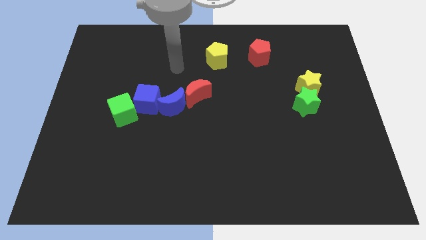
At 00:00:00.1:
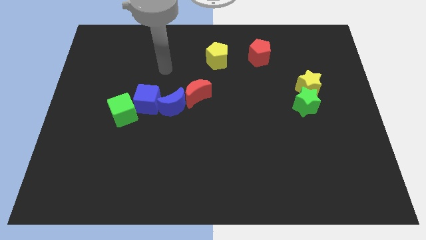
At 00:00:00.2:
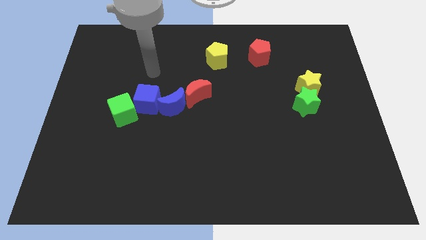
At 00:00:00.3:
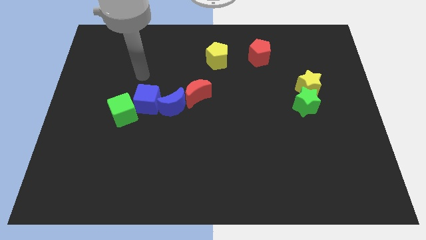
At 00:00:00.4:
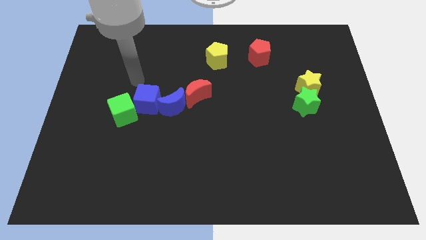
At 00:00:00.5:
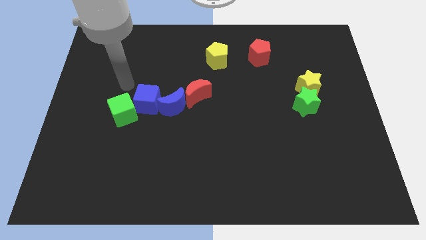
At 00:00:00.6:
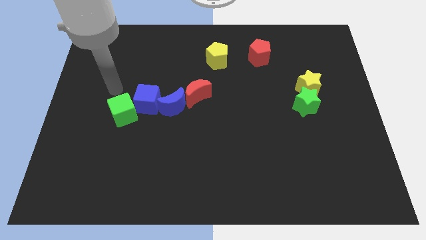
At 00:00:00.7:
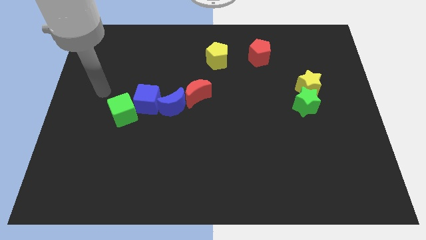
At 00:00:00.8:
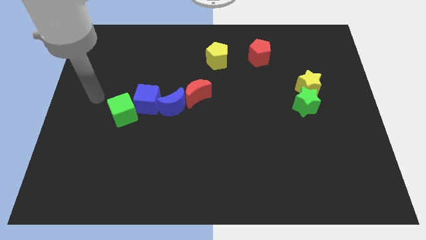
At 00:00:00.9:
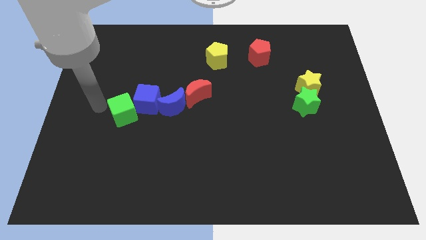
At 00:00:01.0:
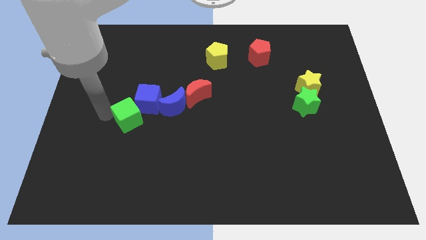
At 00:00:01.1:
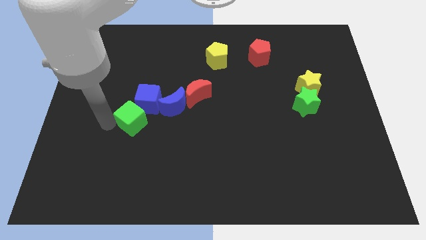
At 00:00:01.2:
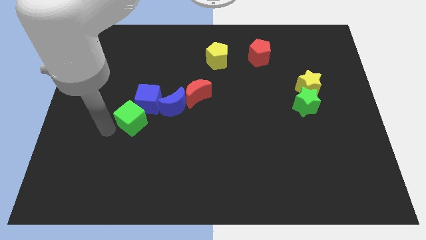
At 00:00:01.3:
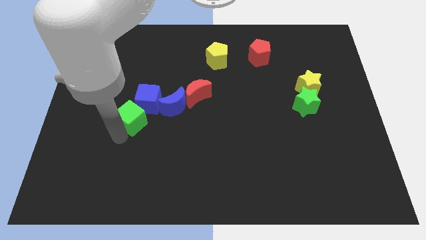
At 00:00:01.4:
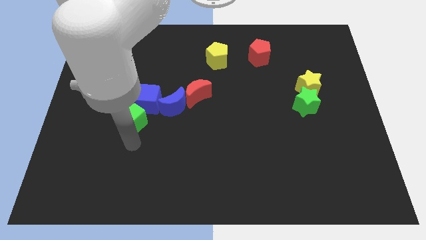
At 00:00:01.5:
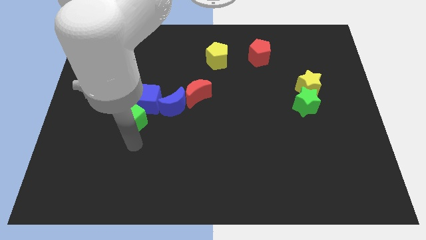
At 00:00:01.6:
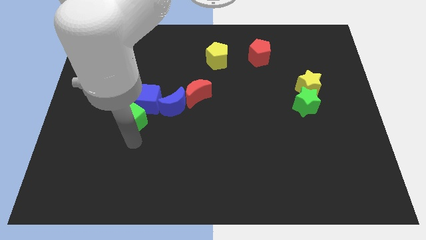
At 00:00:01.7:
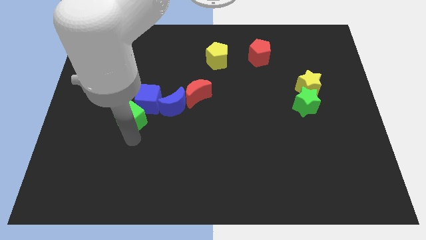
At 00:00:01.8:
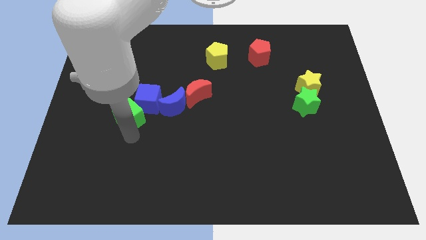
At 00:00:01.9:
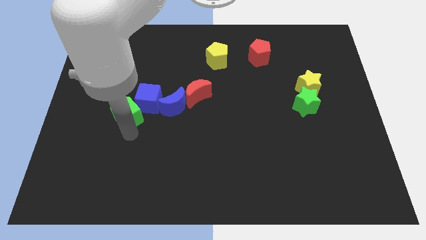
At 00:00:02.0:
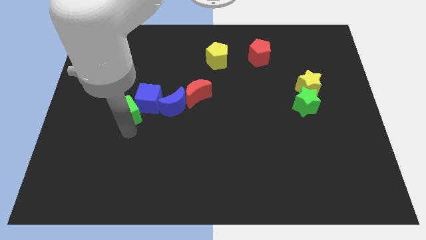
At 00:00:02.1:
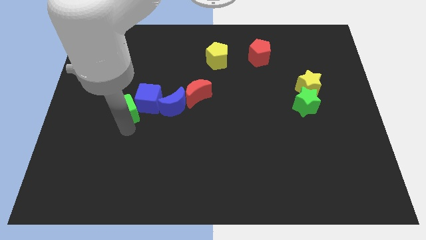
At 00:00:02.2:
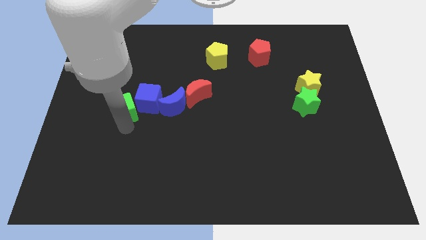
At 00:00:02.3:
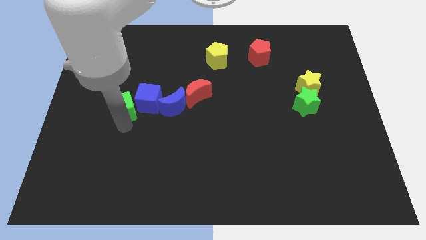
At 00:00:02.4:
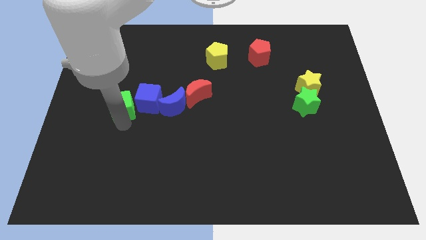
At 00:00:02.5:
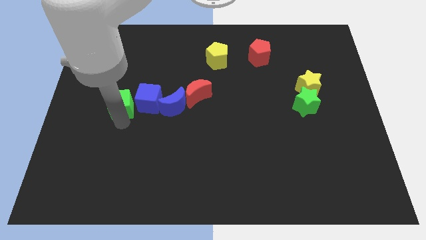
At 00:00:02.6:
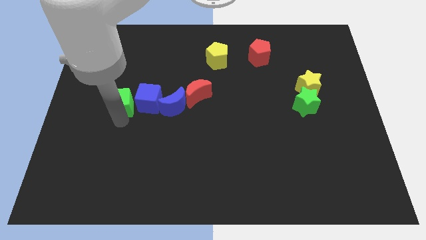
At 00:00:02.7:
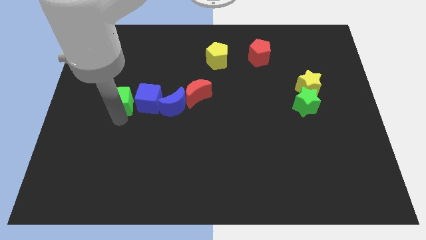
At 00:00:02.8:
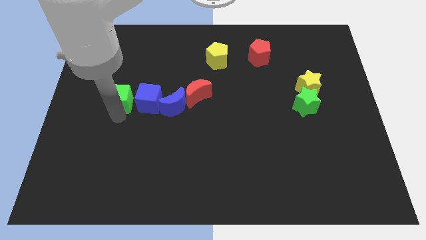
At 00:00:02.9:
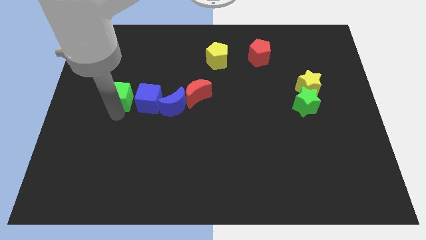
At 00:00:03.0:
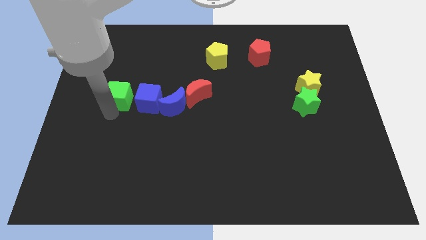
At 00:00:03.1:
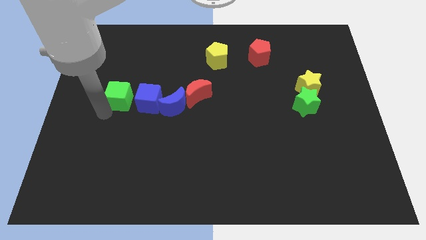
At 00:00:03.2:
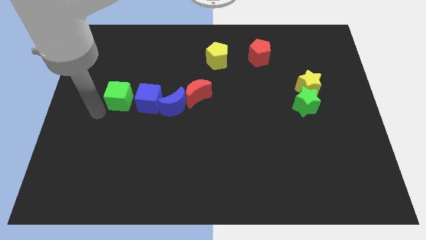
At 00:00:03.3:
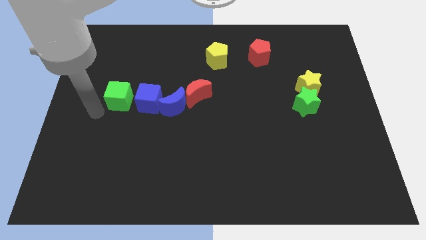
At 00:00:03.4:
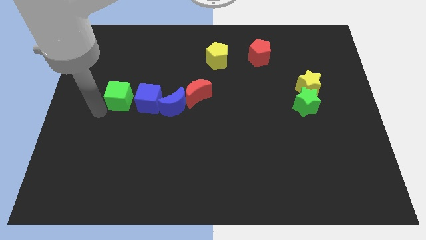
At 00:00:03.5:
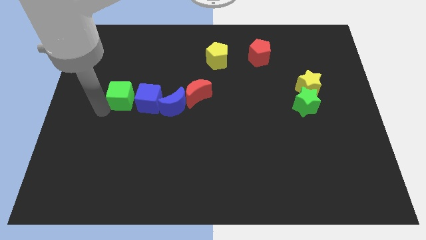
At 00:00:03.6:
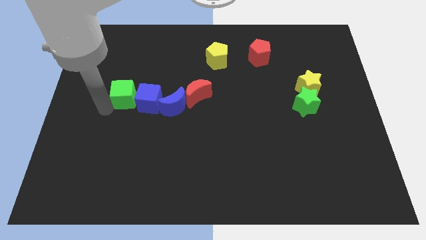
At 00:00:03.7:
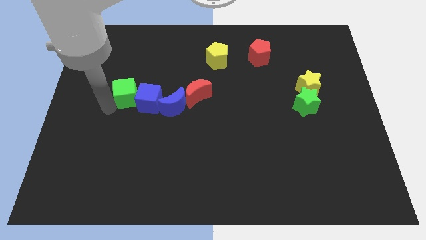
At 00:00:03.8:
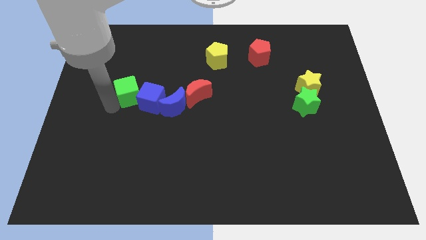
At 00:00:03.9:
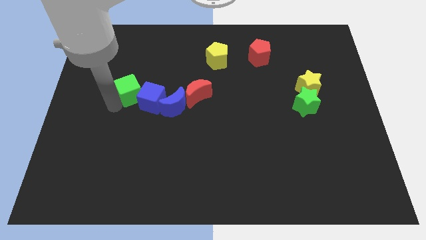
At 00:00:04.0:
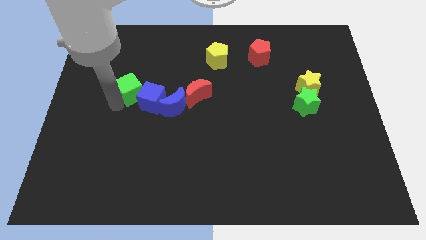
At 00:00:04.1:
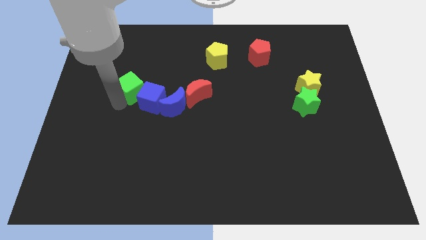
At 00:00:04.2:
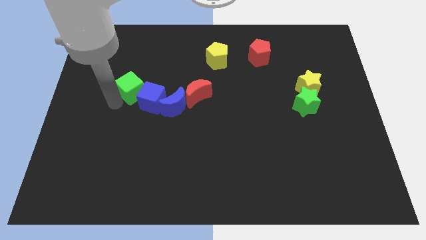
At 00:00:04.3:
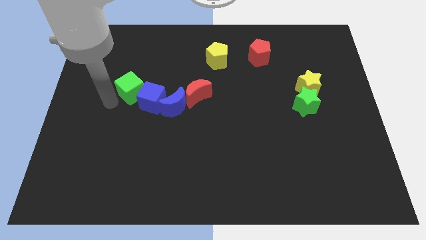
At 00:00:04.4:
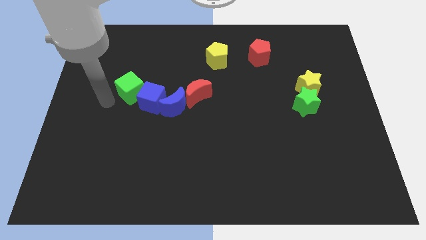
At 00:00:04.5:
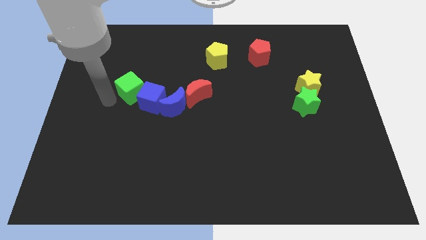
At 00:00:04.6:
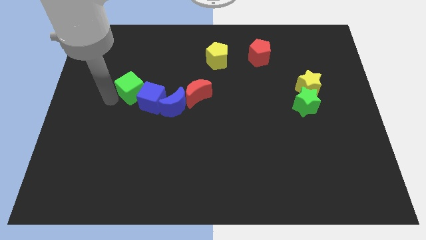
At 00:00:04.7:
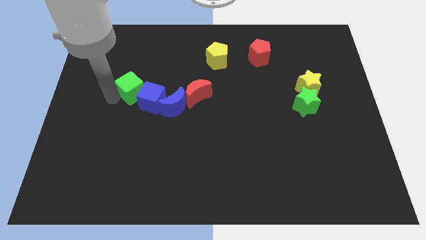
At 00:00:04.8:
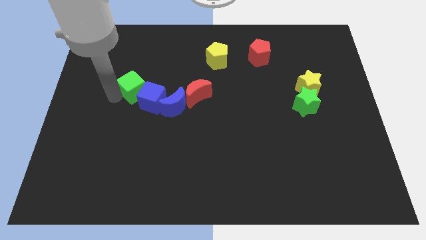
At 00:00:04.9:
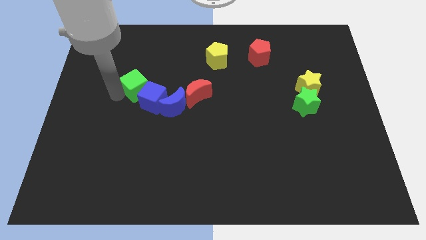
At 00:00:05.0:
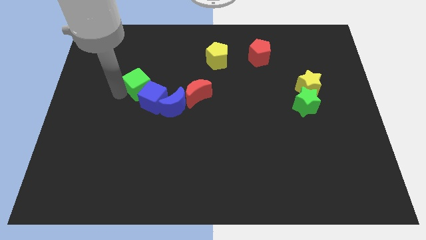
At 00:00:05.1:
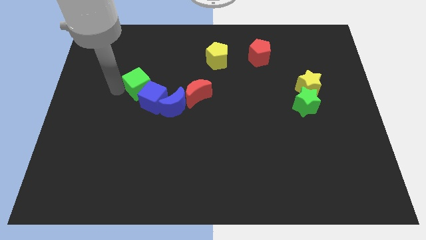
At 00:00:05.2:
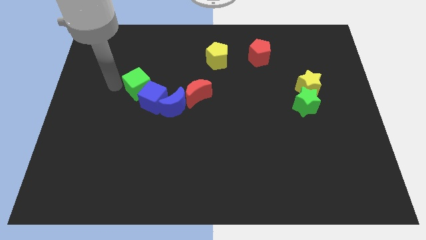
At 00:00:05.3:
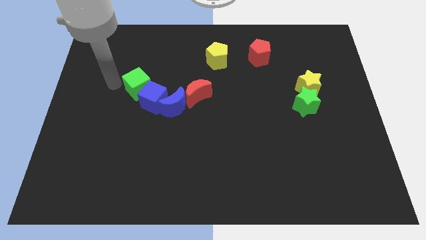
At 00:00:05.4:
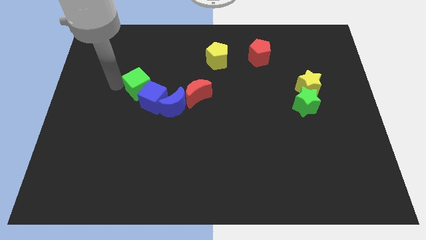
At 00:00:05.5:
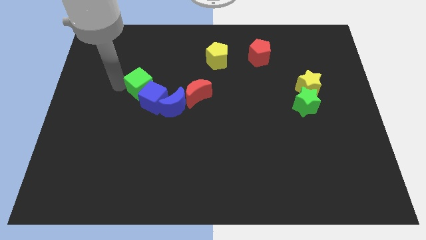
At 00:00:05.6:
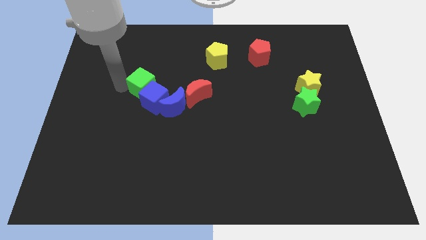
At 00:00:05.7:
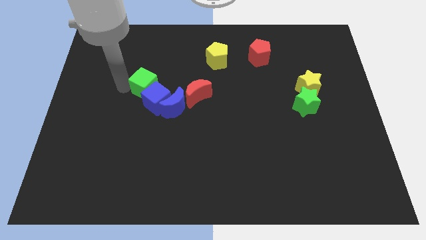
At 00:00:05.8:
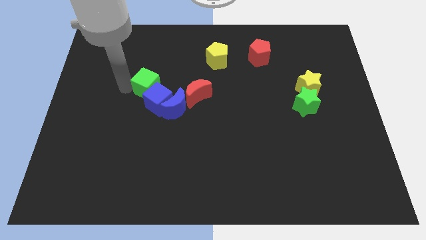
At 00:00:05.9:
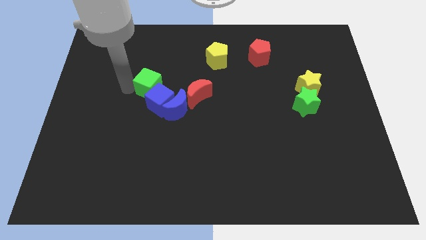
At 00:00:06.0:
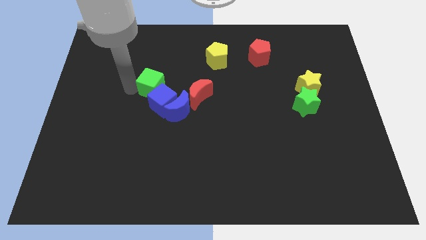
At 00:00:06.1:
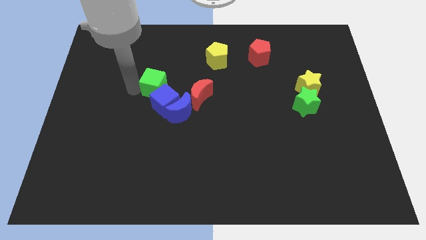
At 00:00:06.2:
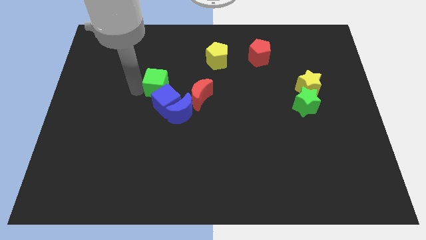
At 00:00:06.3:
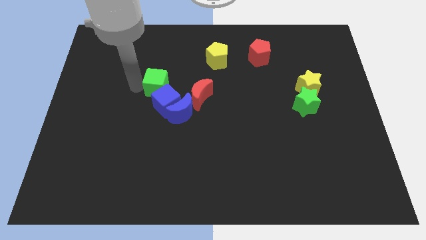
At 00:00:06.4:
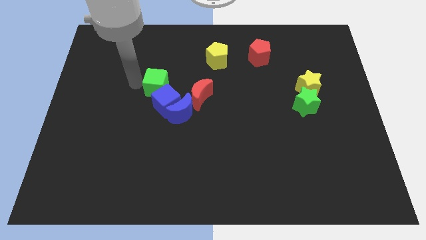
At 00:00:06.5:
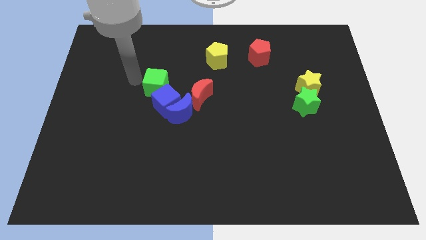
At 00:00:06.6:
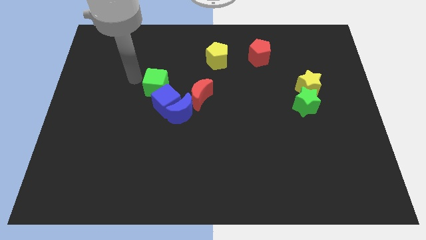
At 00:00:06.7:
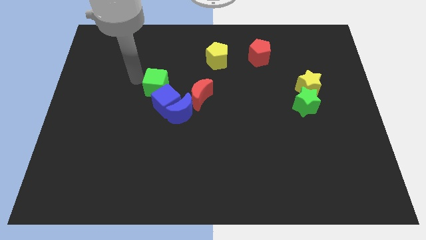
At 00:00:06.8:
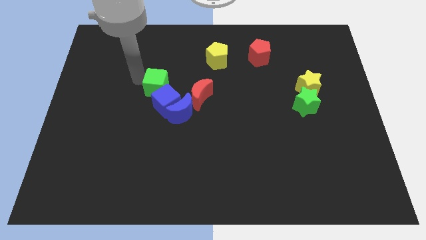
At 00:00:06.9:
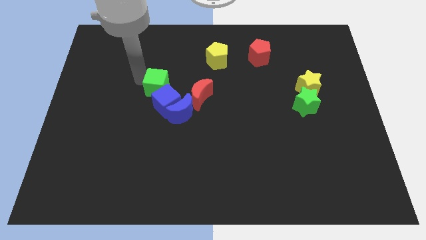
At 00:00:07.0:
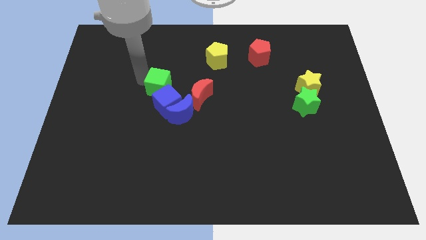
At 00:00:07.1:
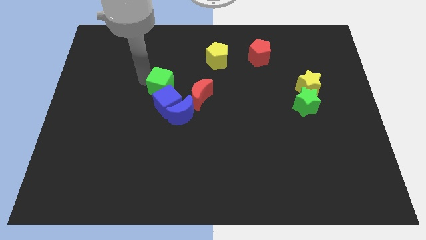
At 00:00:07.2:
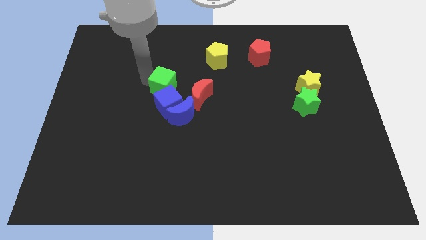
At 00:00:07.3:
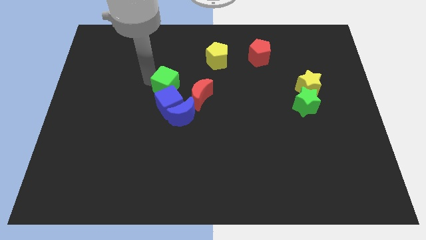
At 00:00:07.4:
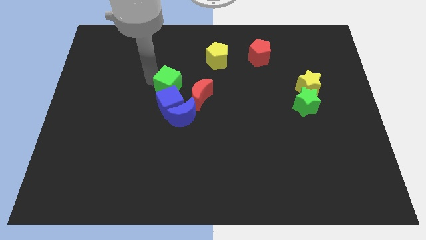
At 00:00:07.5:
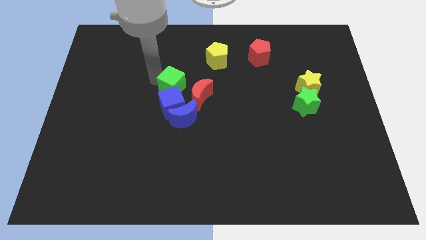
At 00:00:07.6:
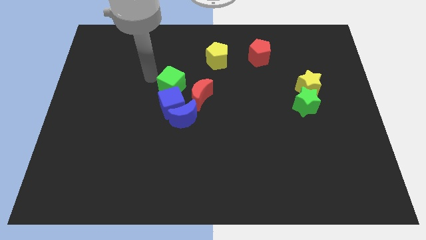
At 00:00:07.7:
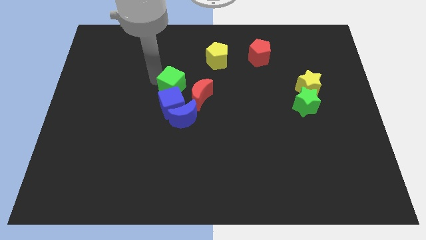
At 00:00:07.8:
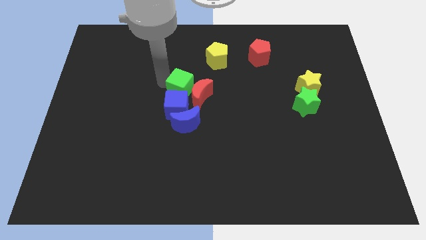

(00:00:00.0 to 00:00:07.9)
push the green cube to the red moon
